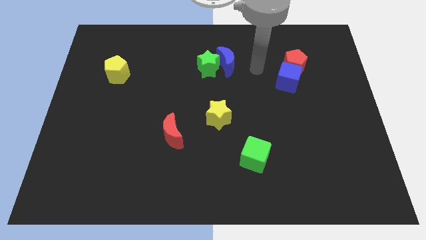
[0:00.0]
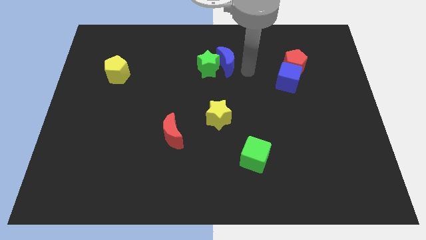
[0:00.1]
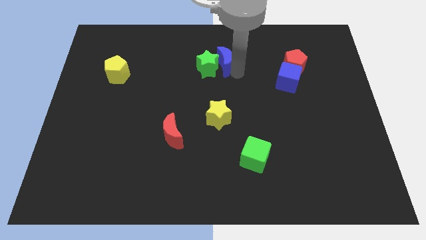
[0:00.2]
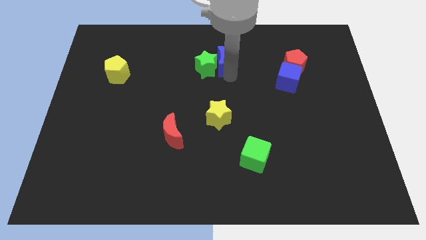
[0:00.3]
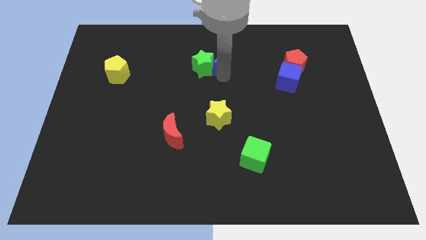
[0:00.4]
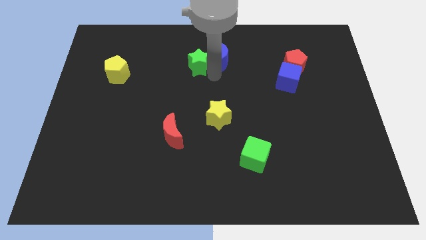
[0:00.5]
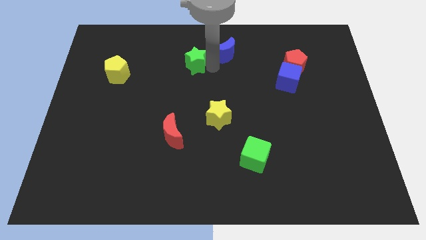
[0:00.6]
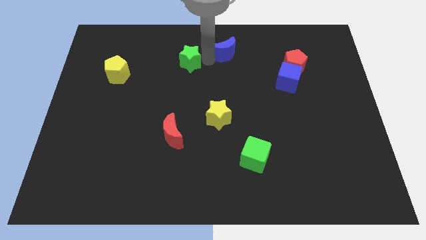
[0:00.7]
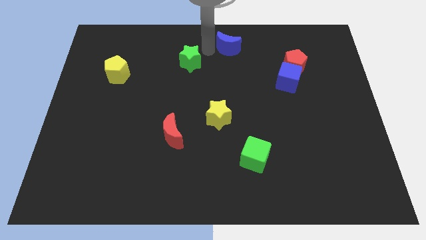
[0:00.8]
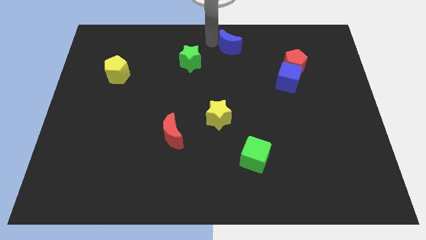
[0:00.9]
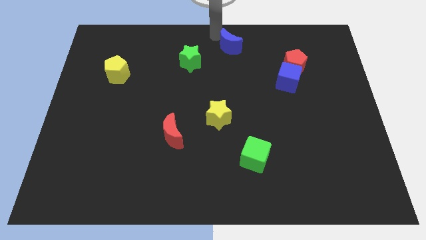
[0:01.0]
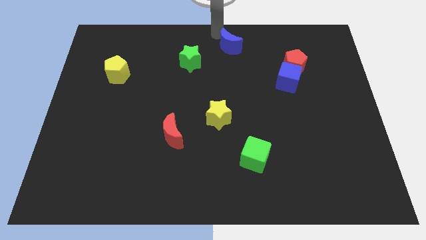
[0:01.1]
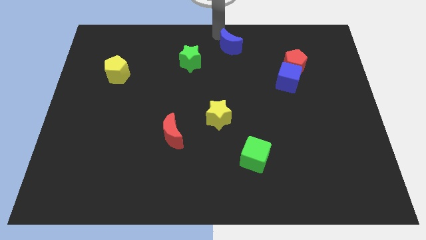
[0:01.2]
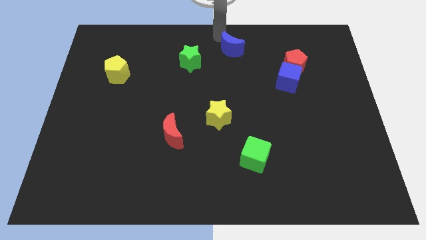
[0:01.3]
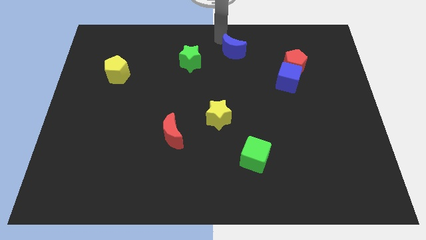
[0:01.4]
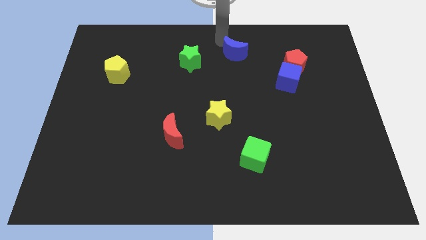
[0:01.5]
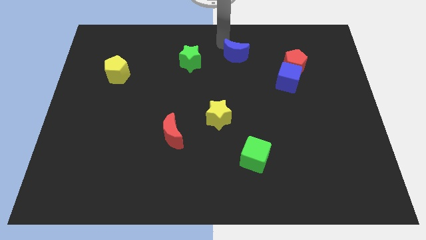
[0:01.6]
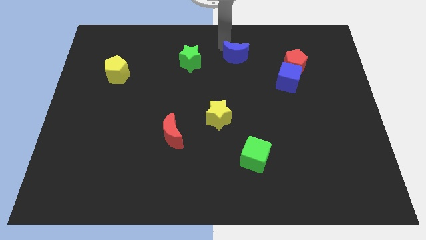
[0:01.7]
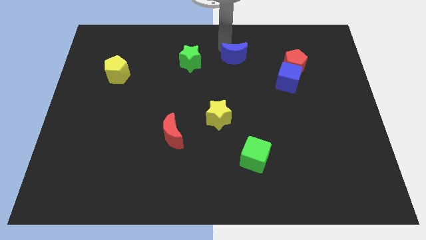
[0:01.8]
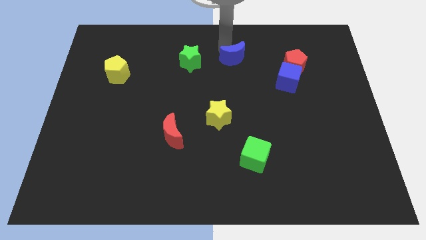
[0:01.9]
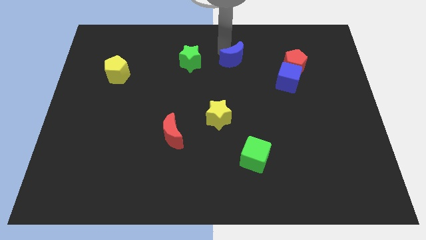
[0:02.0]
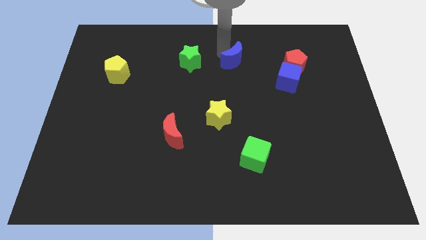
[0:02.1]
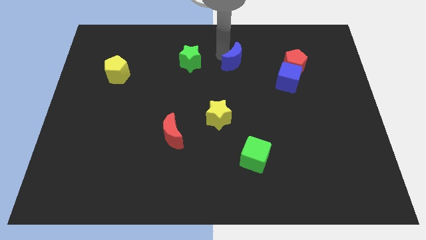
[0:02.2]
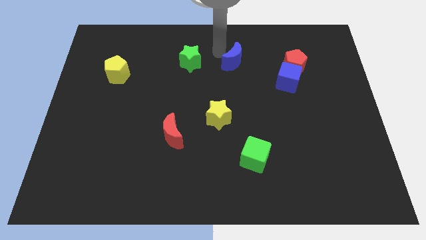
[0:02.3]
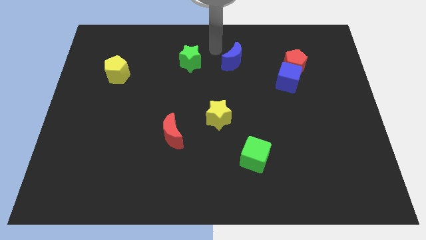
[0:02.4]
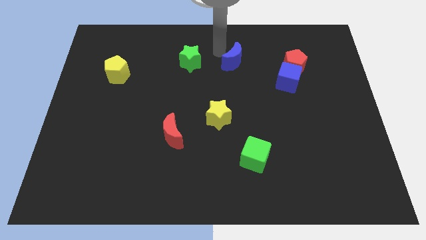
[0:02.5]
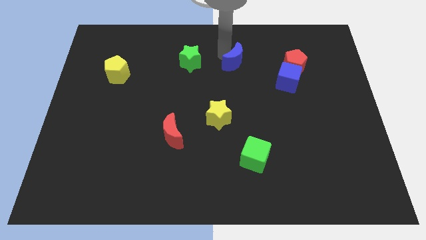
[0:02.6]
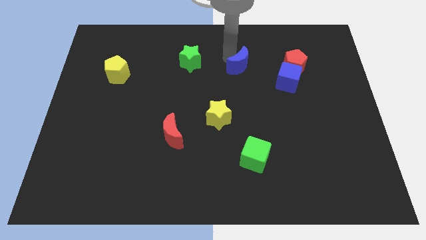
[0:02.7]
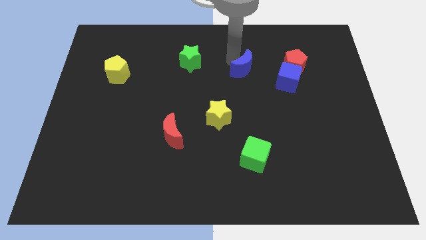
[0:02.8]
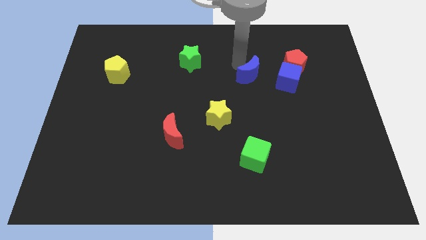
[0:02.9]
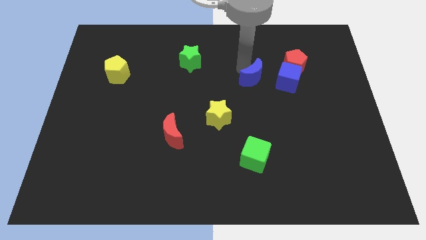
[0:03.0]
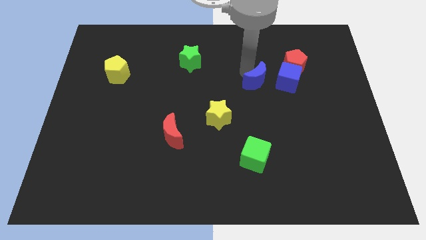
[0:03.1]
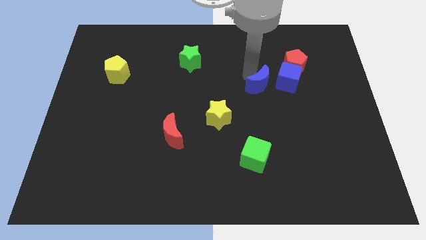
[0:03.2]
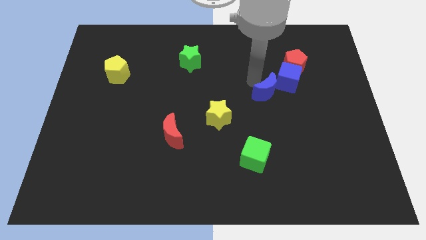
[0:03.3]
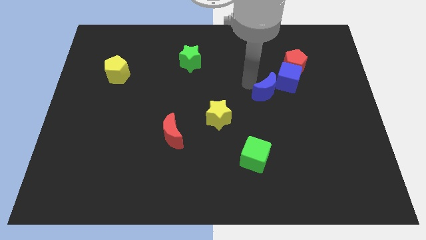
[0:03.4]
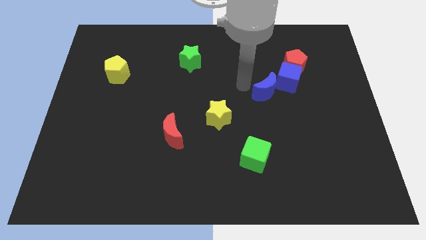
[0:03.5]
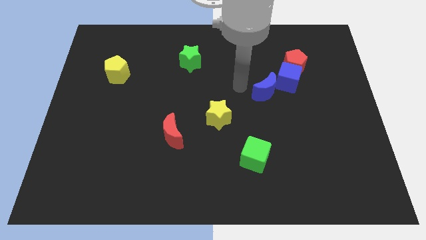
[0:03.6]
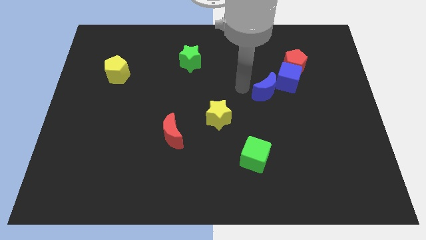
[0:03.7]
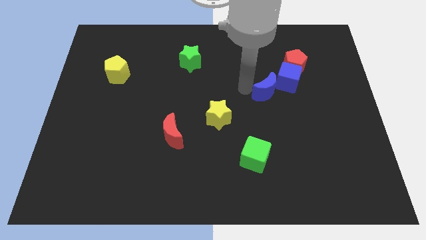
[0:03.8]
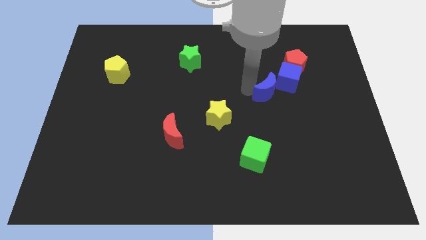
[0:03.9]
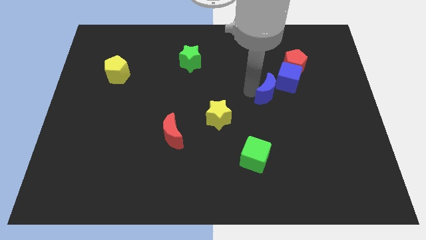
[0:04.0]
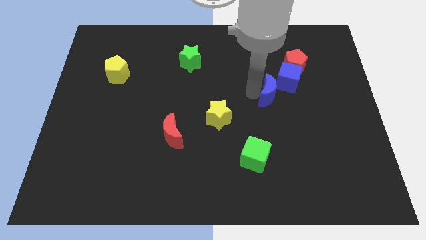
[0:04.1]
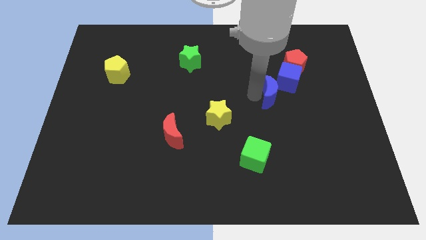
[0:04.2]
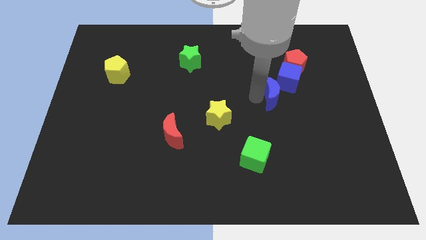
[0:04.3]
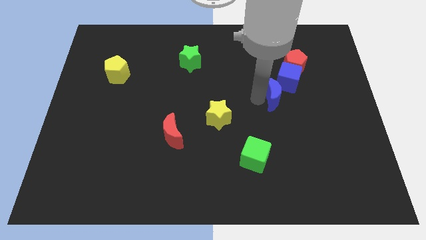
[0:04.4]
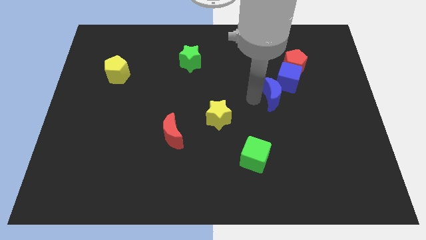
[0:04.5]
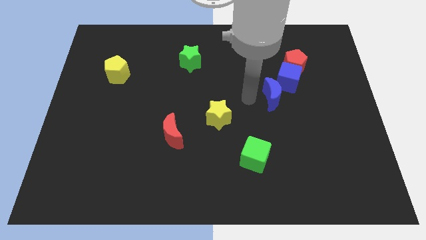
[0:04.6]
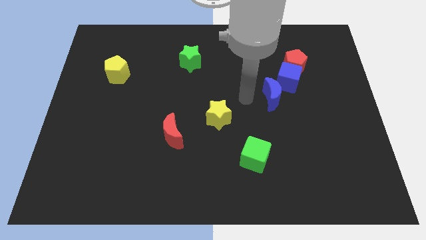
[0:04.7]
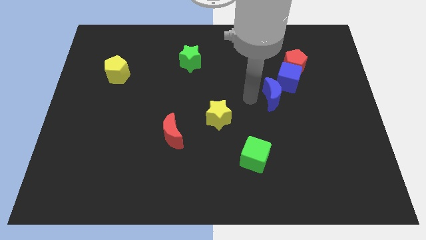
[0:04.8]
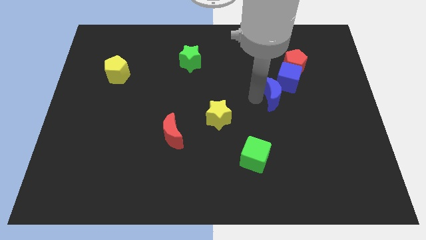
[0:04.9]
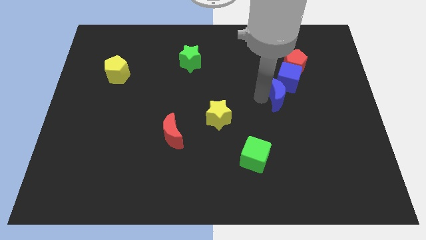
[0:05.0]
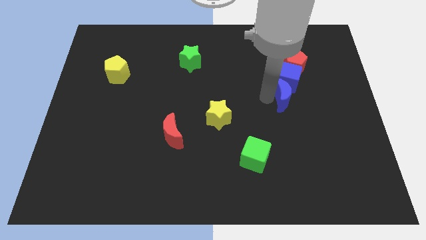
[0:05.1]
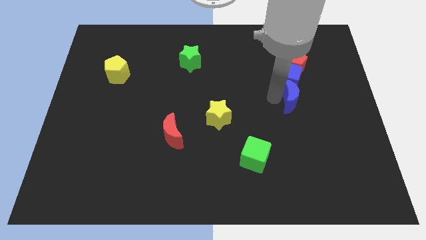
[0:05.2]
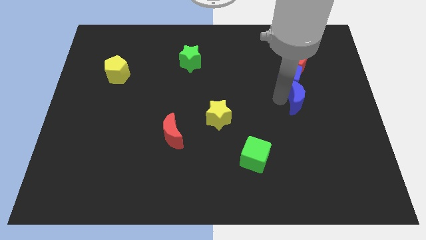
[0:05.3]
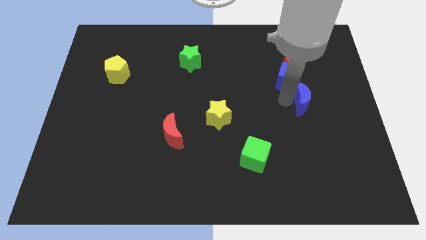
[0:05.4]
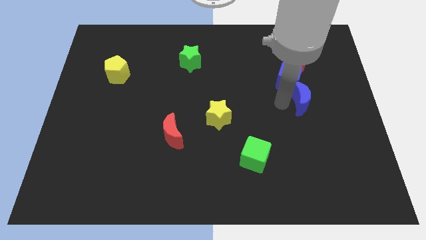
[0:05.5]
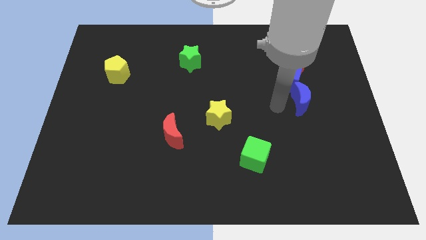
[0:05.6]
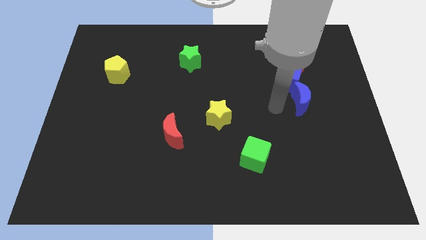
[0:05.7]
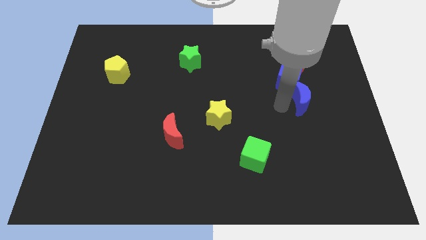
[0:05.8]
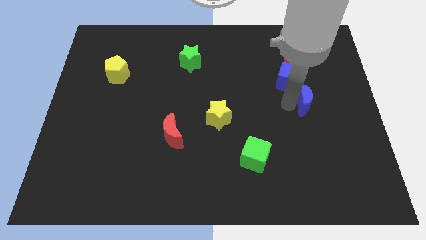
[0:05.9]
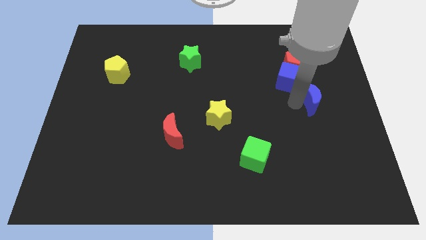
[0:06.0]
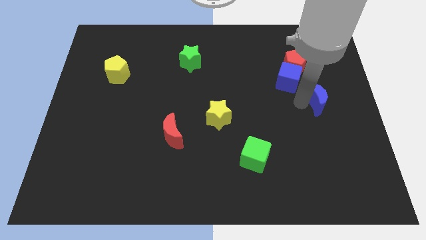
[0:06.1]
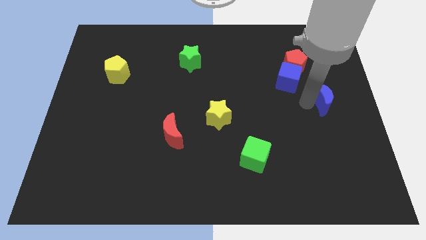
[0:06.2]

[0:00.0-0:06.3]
put the blue moon to the center right
